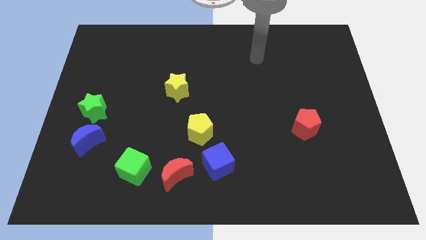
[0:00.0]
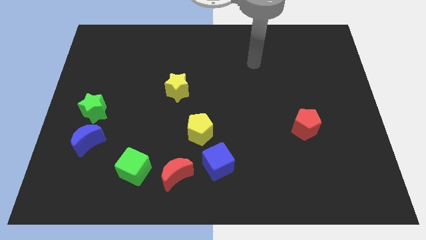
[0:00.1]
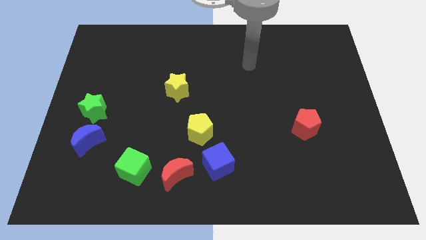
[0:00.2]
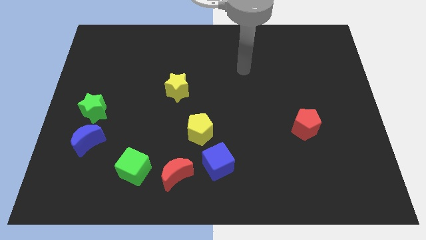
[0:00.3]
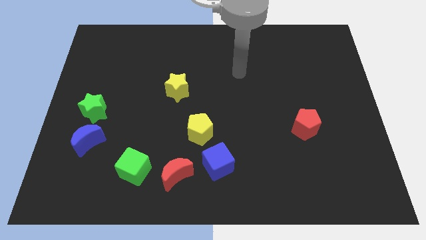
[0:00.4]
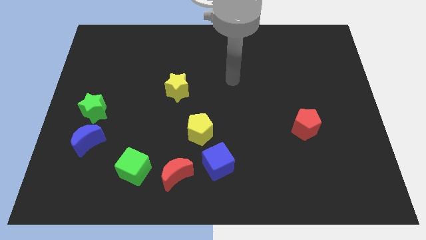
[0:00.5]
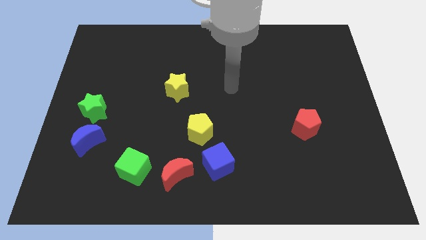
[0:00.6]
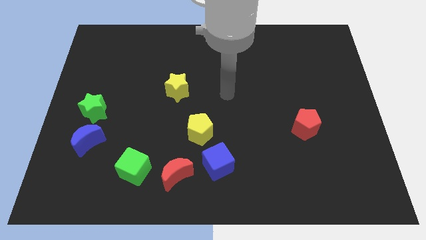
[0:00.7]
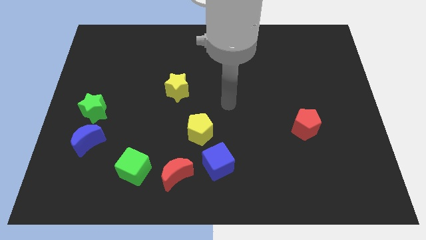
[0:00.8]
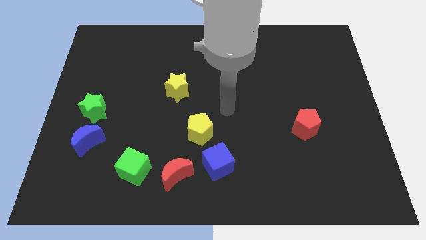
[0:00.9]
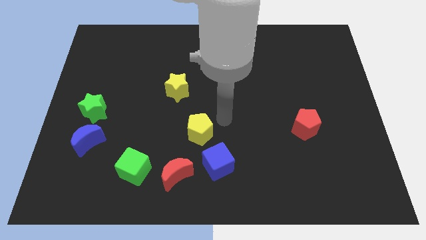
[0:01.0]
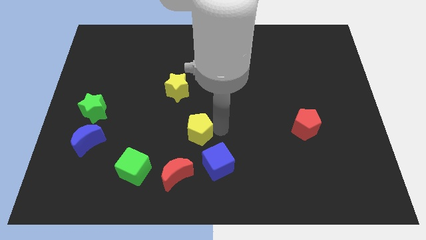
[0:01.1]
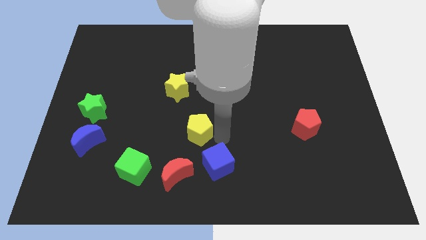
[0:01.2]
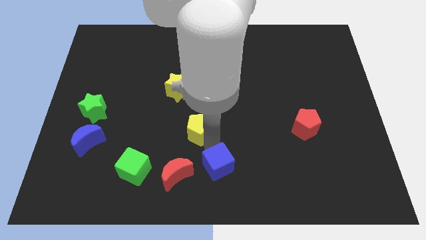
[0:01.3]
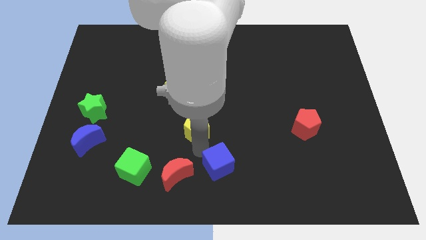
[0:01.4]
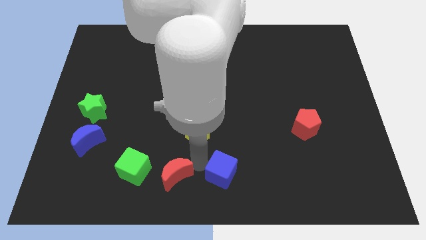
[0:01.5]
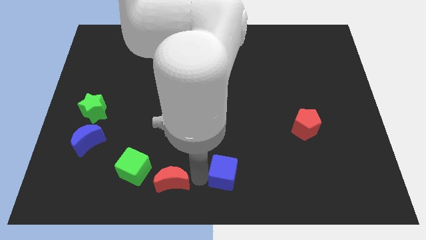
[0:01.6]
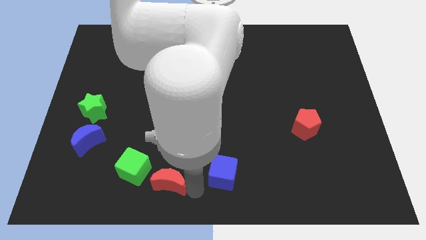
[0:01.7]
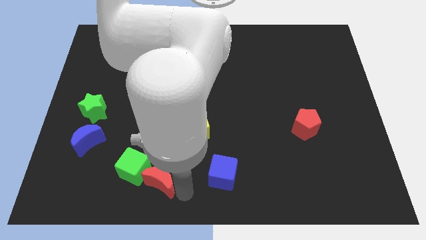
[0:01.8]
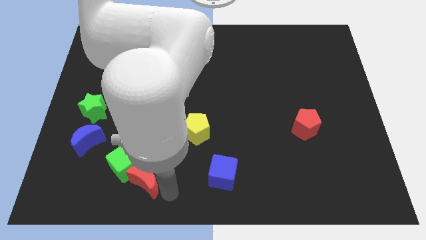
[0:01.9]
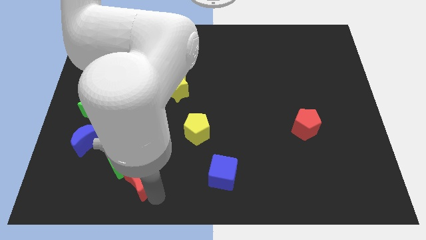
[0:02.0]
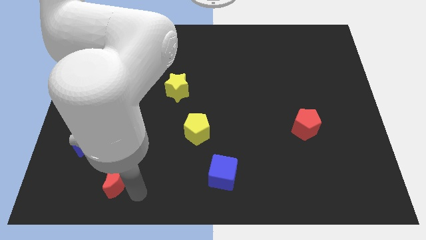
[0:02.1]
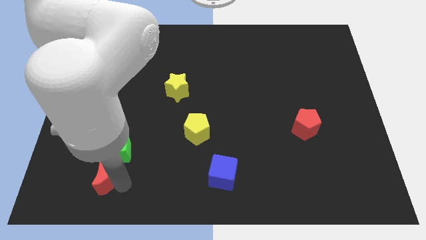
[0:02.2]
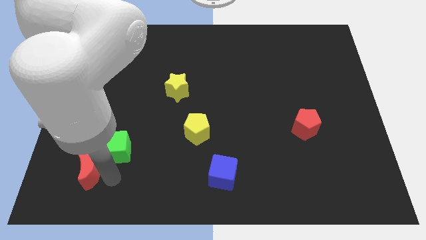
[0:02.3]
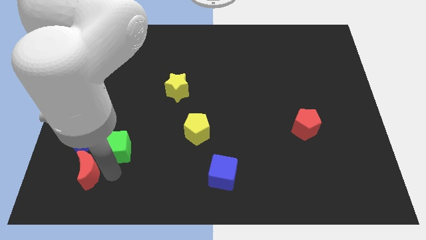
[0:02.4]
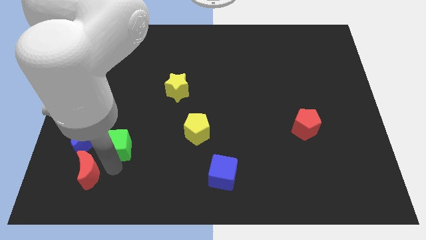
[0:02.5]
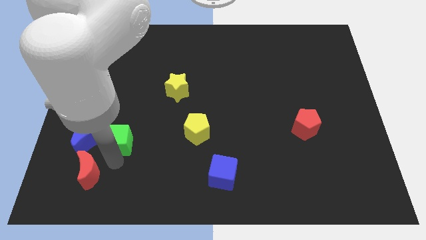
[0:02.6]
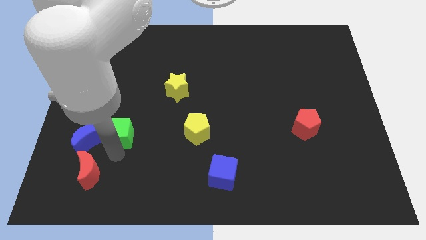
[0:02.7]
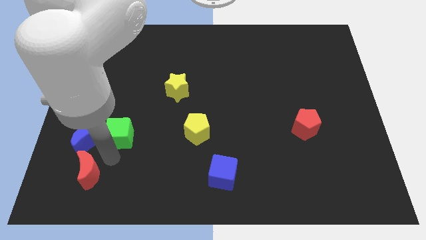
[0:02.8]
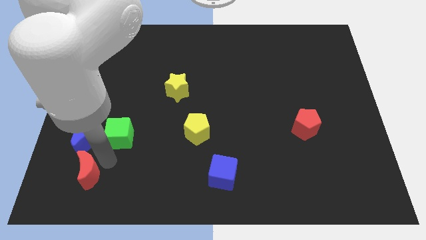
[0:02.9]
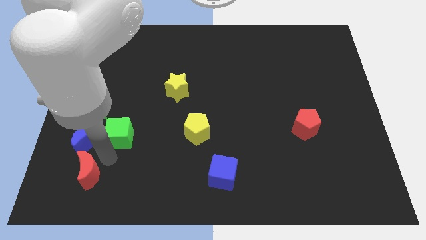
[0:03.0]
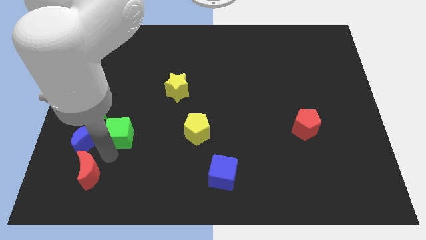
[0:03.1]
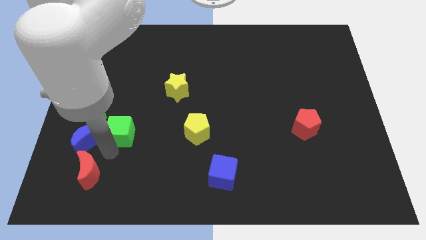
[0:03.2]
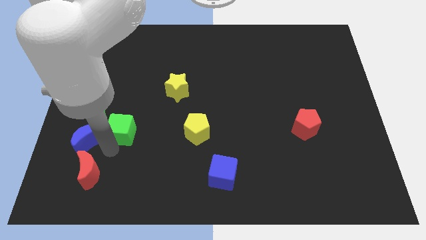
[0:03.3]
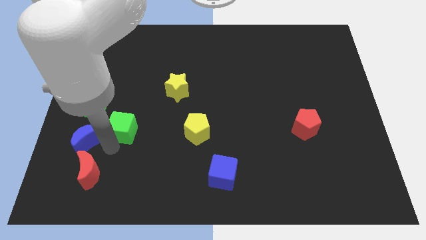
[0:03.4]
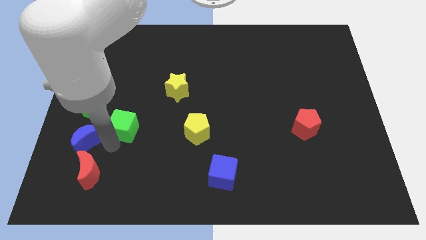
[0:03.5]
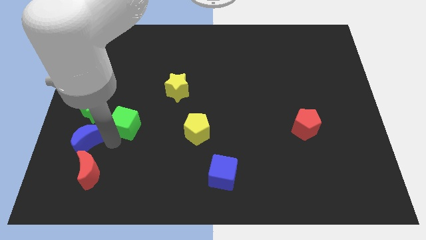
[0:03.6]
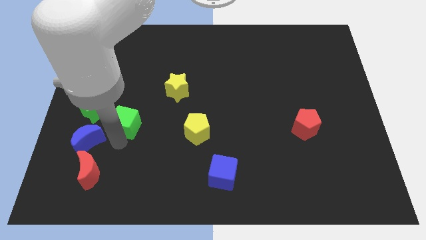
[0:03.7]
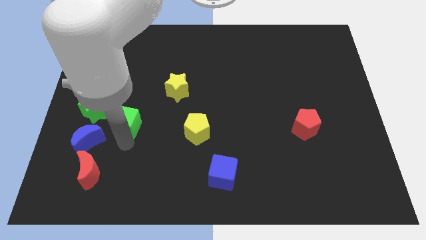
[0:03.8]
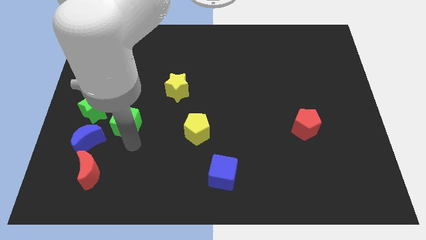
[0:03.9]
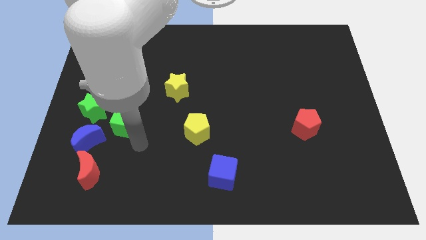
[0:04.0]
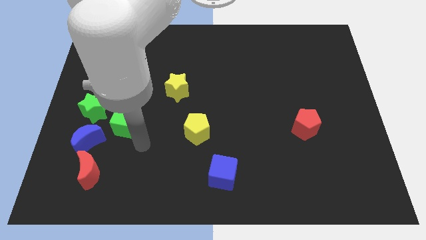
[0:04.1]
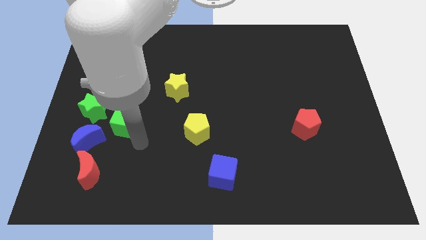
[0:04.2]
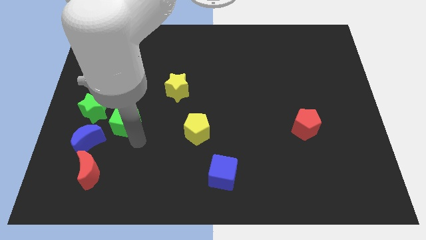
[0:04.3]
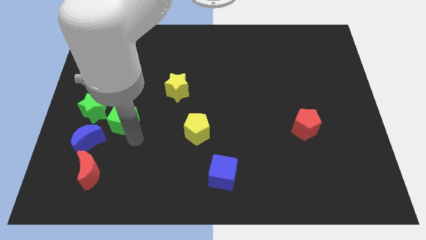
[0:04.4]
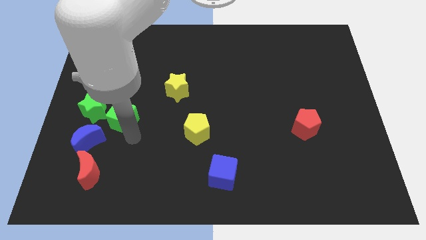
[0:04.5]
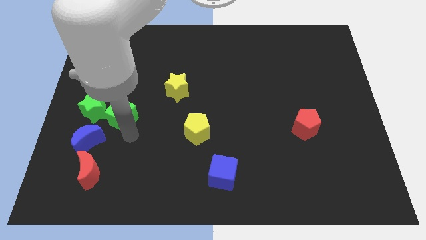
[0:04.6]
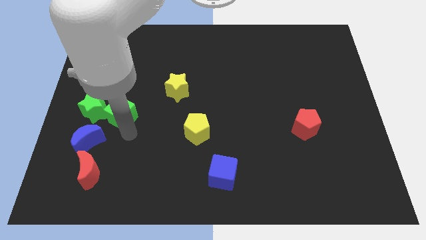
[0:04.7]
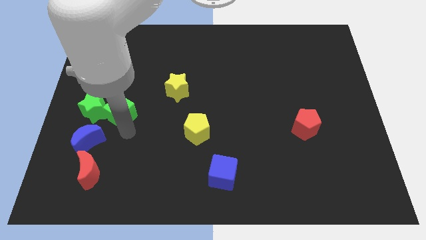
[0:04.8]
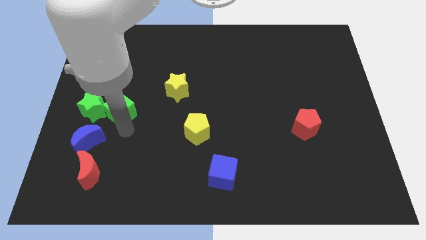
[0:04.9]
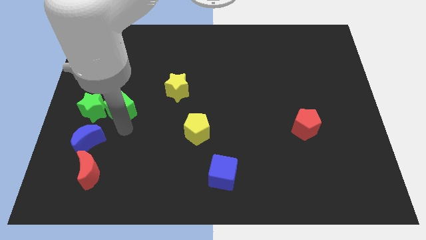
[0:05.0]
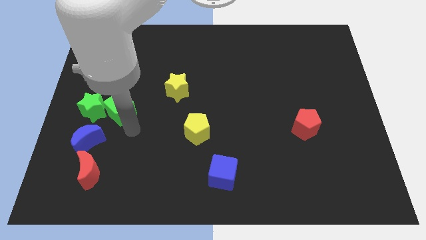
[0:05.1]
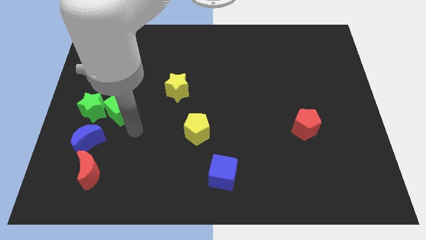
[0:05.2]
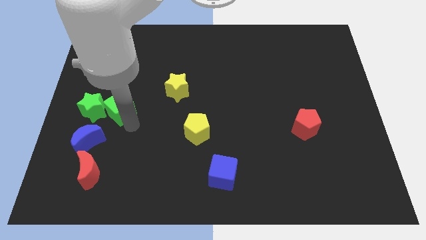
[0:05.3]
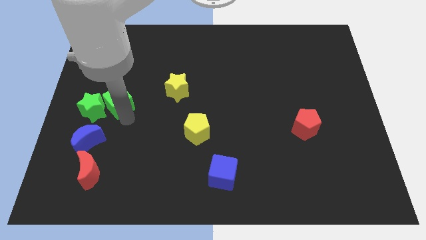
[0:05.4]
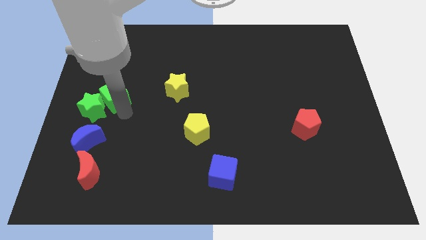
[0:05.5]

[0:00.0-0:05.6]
slide the green cube to the top side of the green star

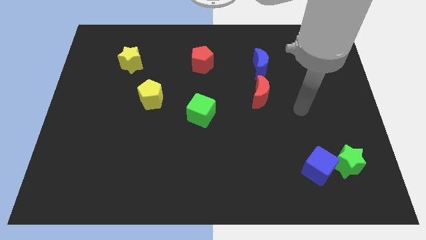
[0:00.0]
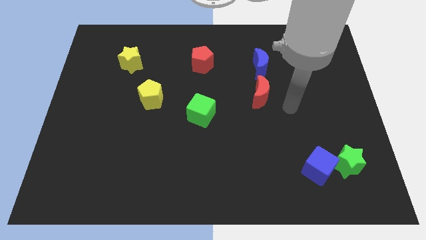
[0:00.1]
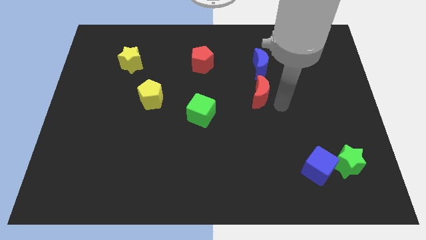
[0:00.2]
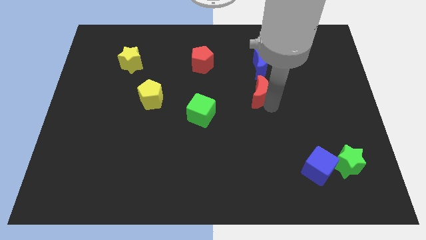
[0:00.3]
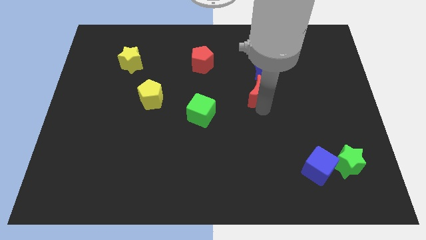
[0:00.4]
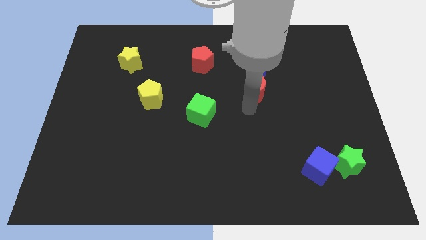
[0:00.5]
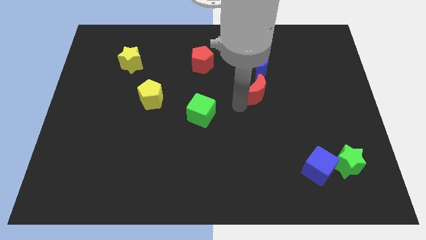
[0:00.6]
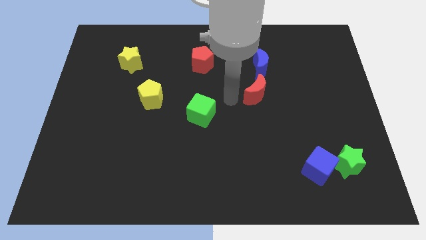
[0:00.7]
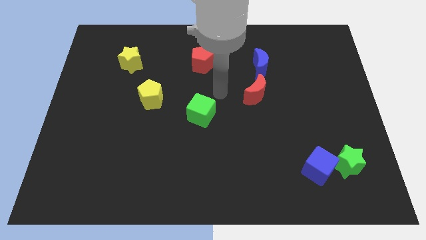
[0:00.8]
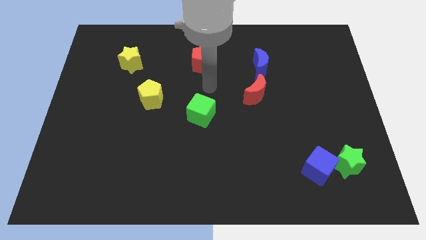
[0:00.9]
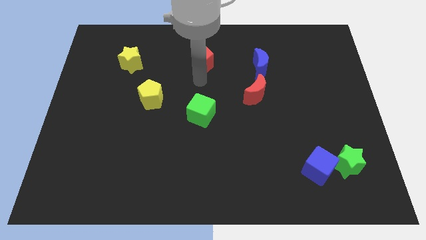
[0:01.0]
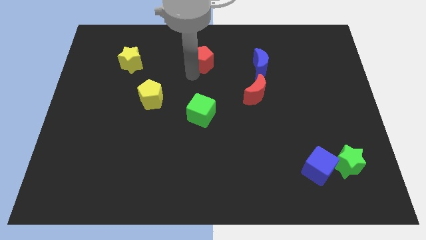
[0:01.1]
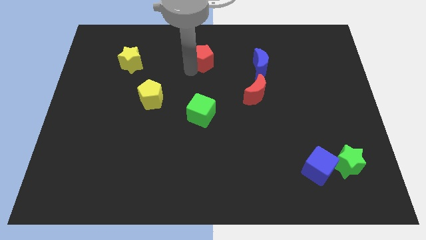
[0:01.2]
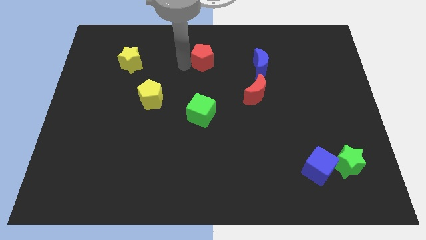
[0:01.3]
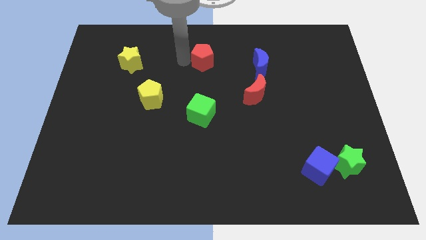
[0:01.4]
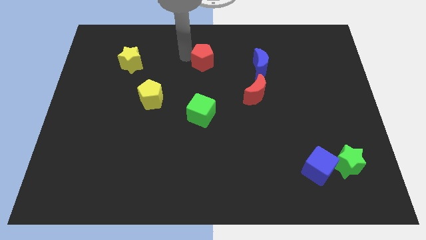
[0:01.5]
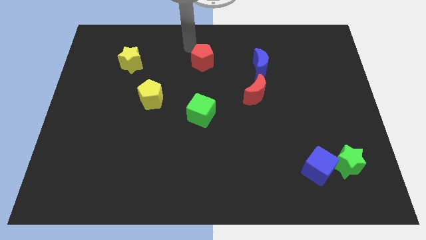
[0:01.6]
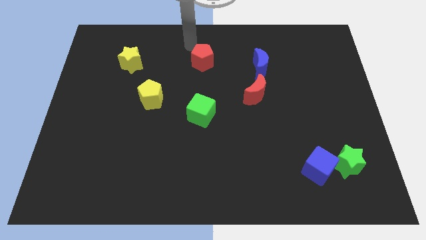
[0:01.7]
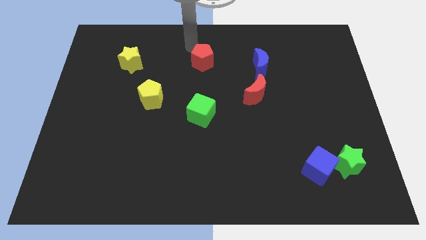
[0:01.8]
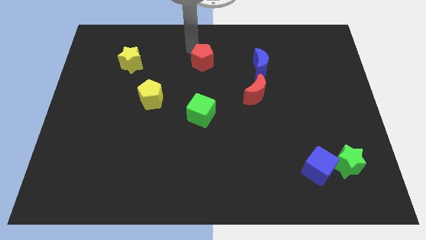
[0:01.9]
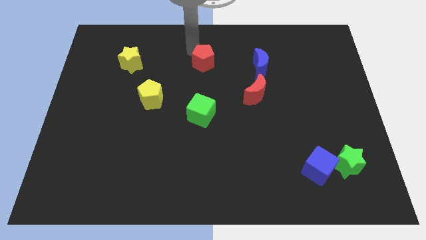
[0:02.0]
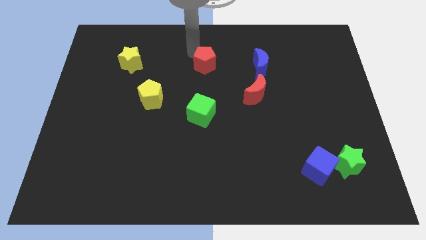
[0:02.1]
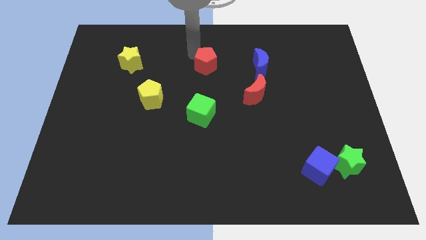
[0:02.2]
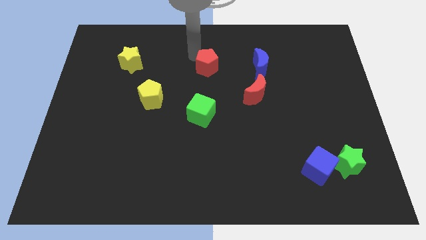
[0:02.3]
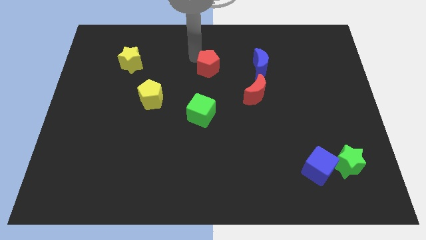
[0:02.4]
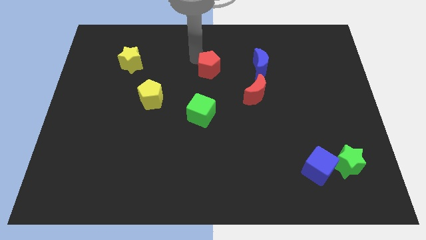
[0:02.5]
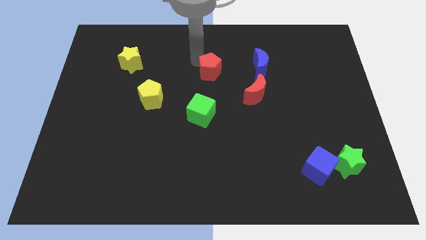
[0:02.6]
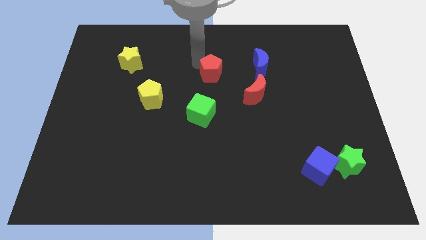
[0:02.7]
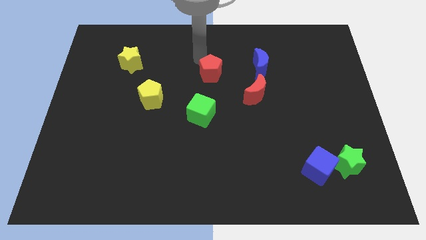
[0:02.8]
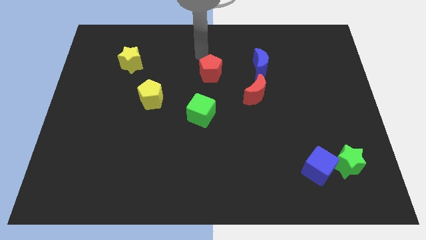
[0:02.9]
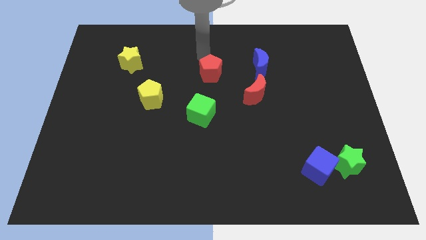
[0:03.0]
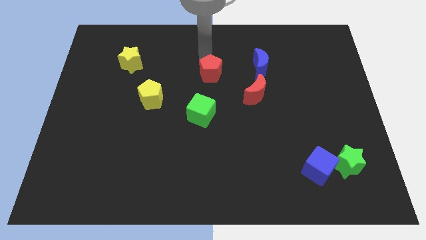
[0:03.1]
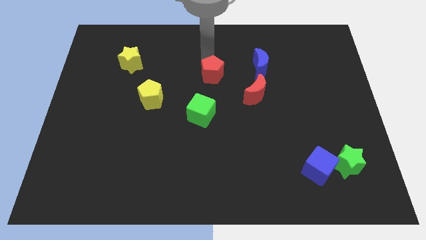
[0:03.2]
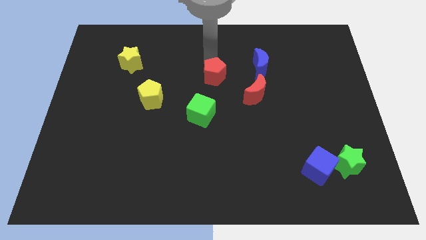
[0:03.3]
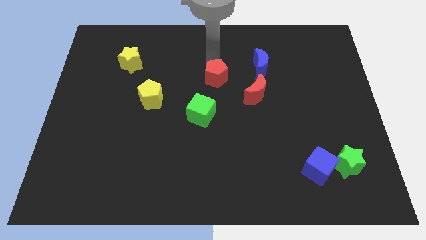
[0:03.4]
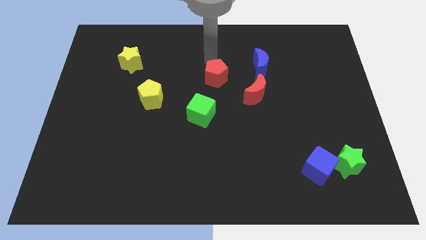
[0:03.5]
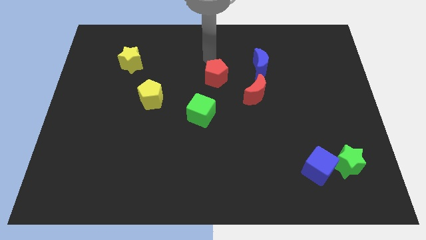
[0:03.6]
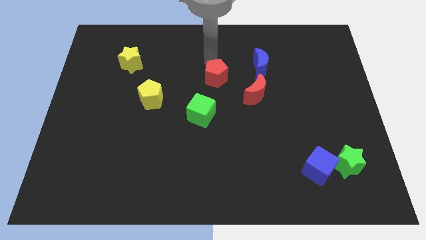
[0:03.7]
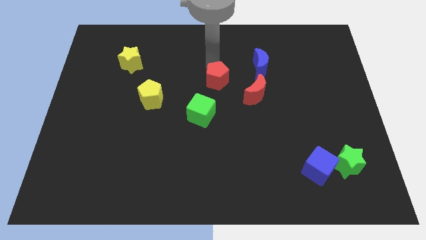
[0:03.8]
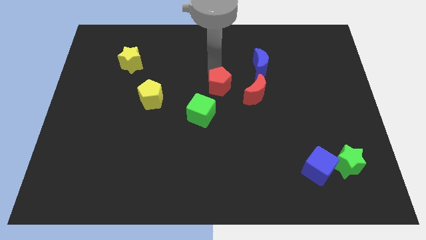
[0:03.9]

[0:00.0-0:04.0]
push the red pentagon to the top right of the green cube
